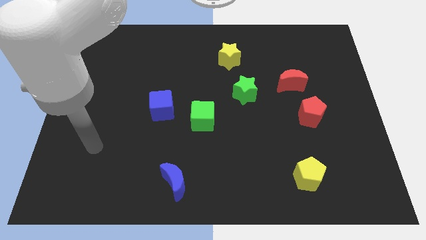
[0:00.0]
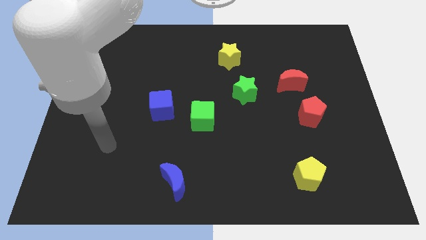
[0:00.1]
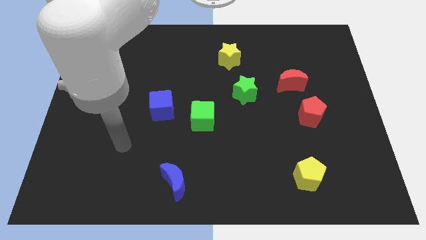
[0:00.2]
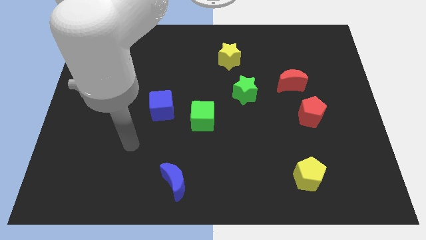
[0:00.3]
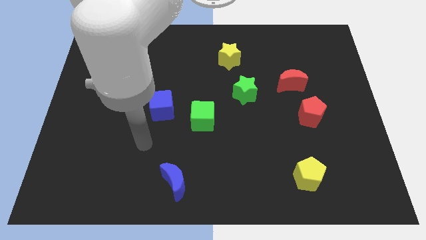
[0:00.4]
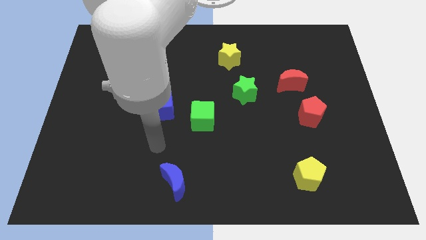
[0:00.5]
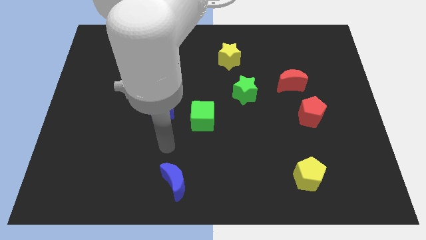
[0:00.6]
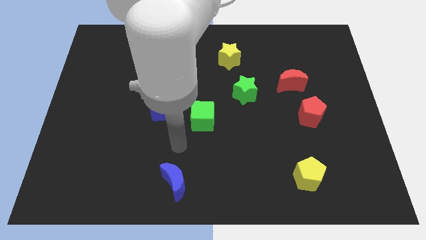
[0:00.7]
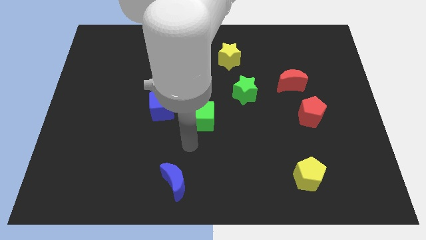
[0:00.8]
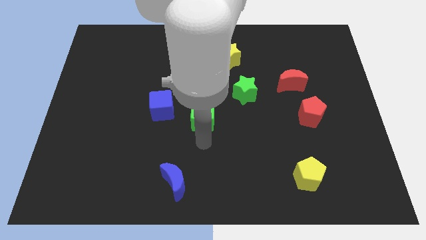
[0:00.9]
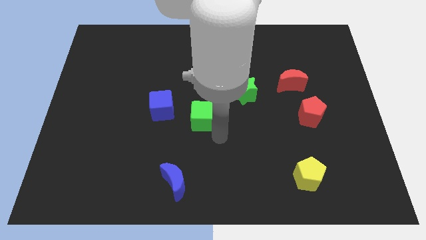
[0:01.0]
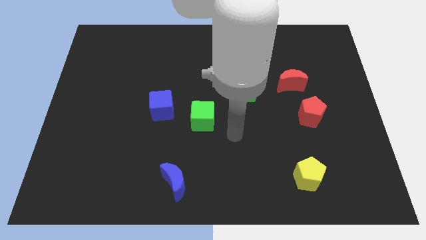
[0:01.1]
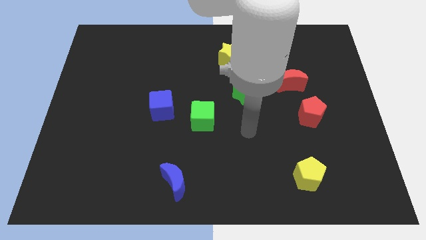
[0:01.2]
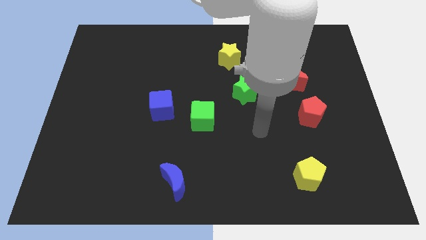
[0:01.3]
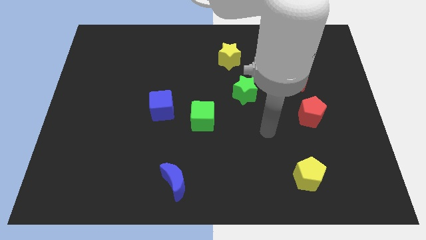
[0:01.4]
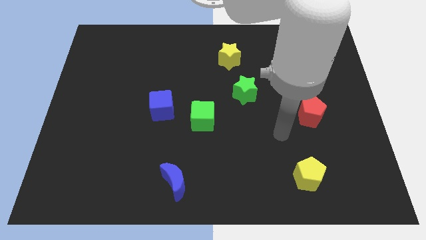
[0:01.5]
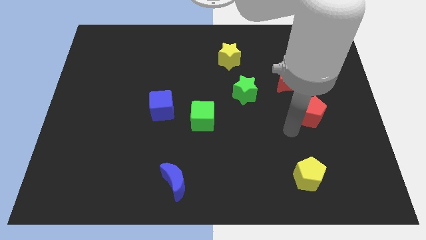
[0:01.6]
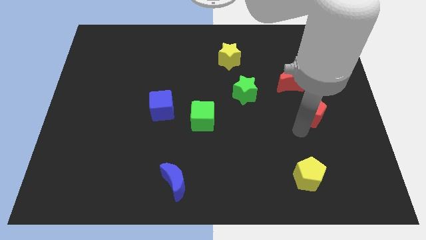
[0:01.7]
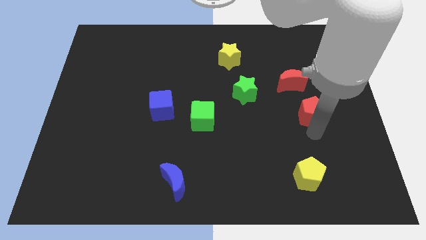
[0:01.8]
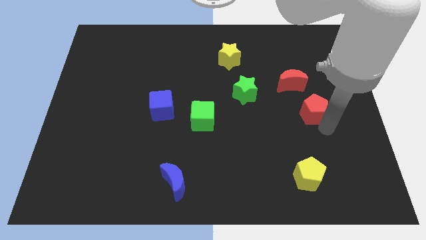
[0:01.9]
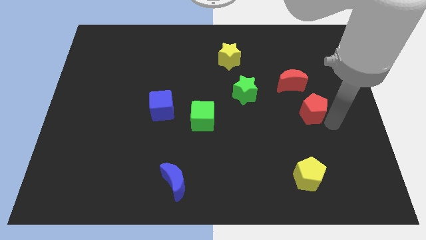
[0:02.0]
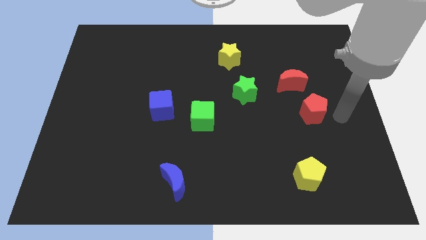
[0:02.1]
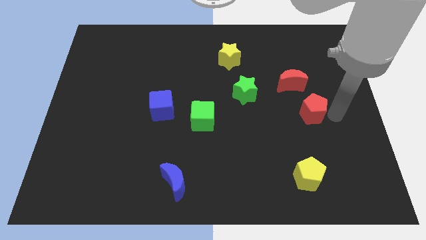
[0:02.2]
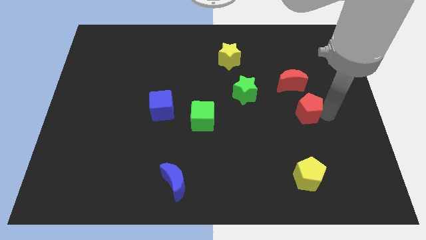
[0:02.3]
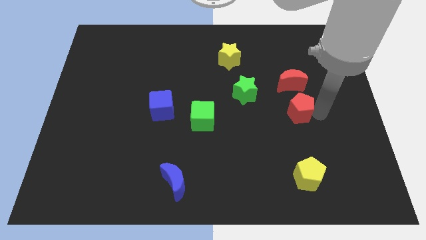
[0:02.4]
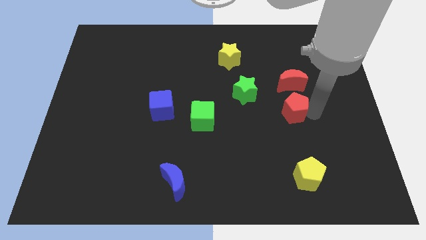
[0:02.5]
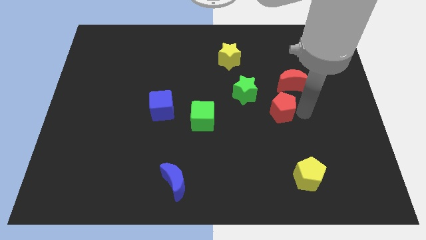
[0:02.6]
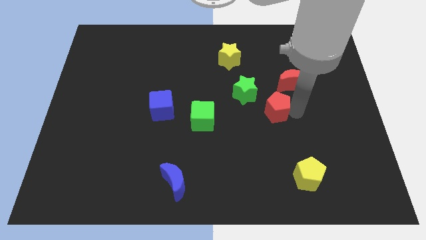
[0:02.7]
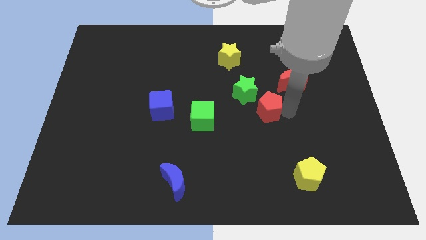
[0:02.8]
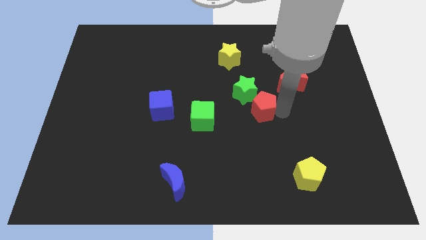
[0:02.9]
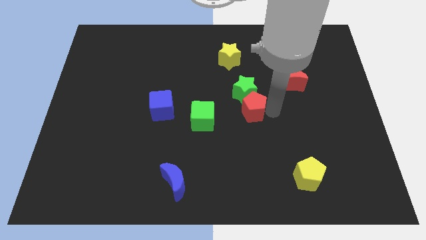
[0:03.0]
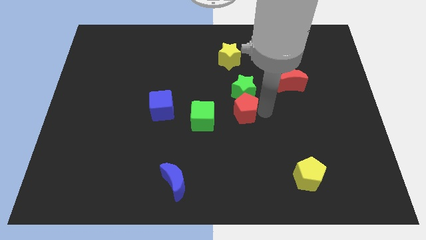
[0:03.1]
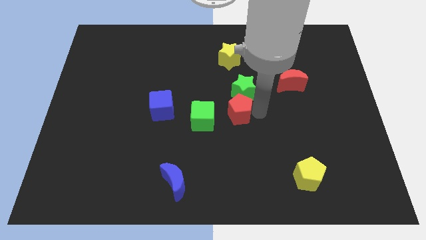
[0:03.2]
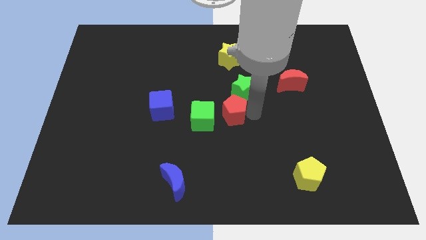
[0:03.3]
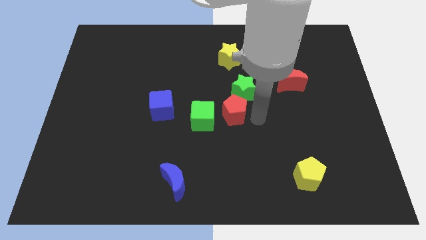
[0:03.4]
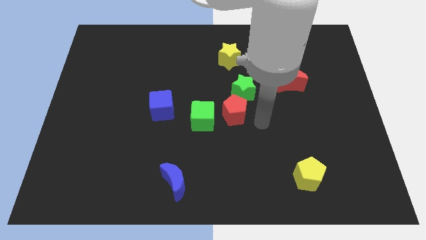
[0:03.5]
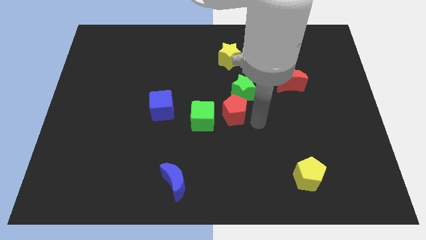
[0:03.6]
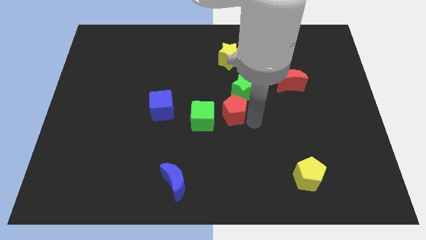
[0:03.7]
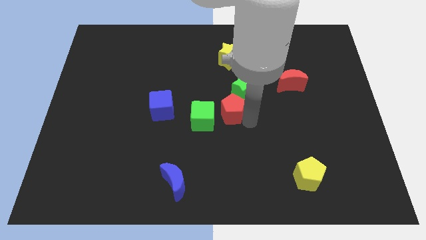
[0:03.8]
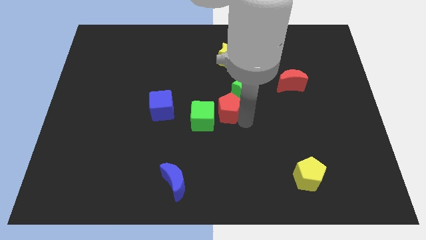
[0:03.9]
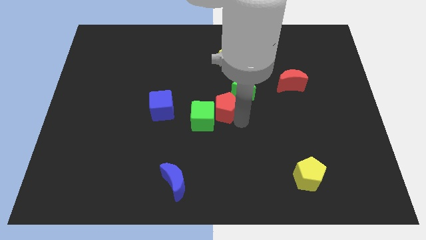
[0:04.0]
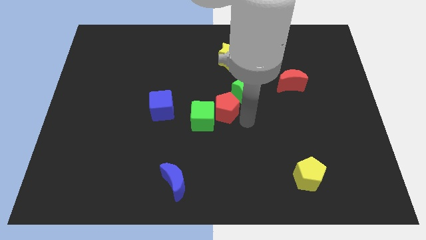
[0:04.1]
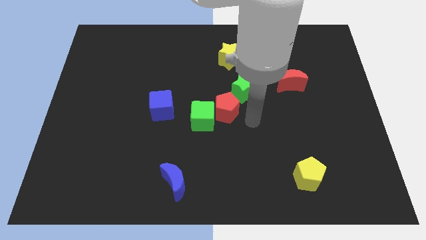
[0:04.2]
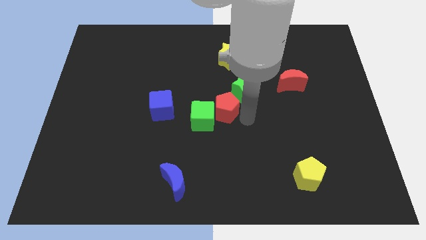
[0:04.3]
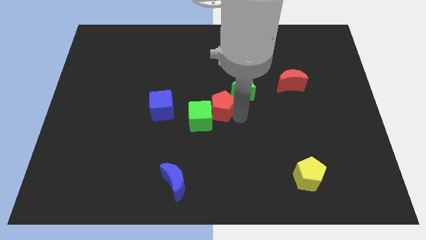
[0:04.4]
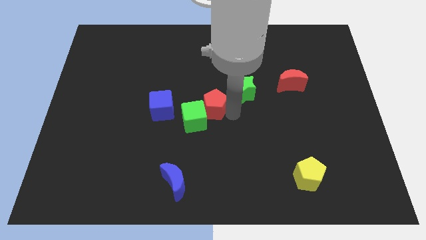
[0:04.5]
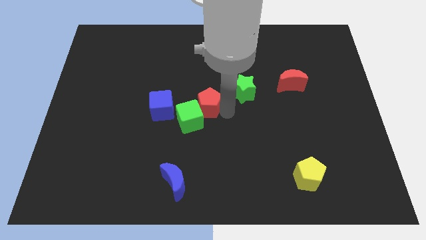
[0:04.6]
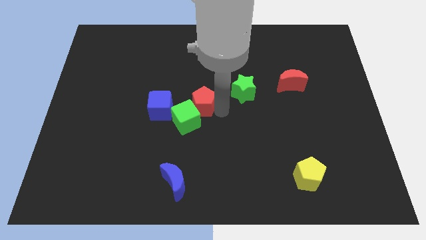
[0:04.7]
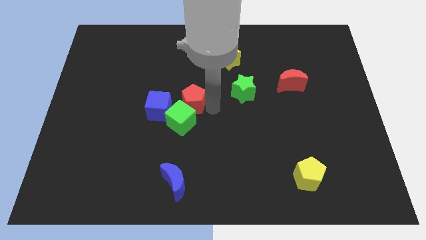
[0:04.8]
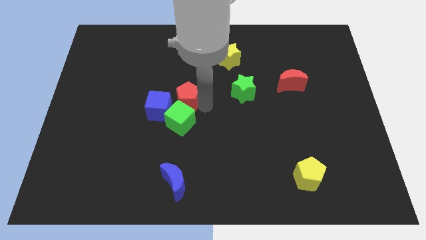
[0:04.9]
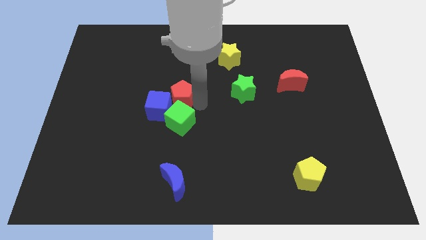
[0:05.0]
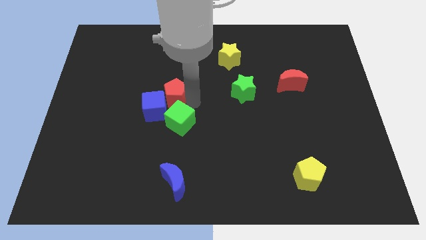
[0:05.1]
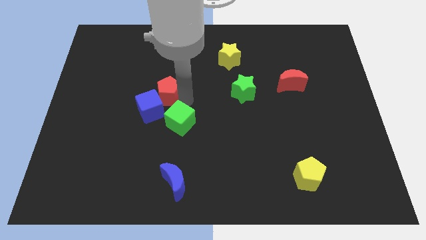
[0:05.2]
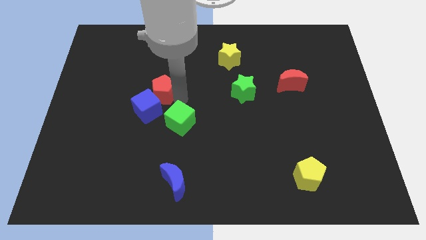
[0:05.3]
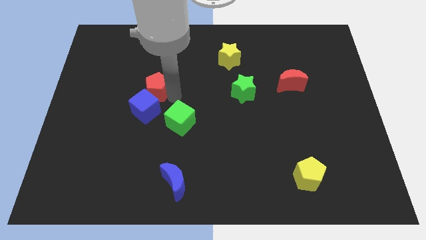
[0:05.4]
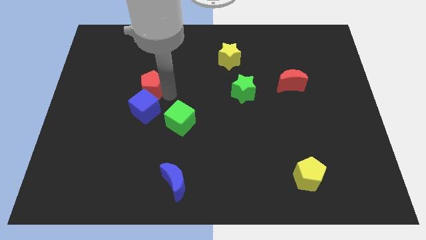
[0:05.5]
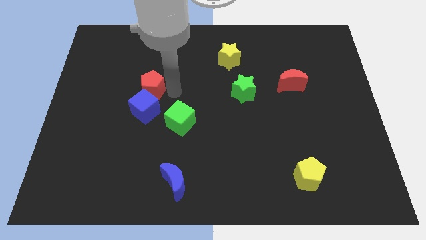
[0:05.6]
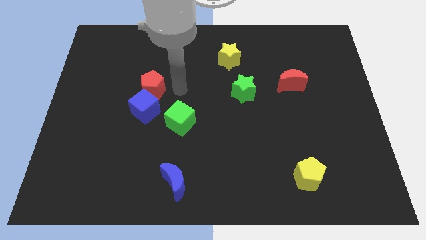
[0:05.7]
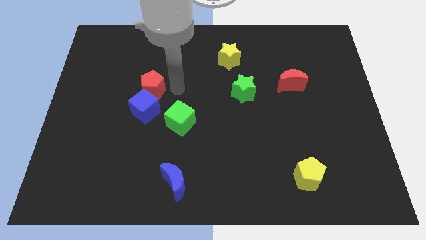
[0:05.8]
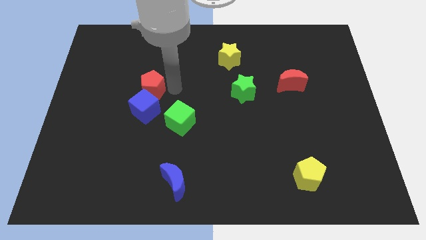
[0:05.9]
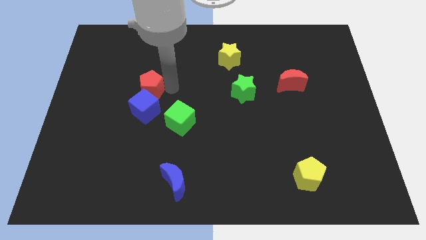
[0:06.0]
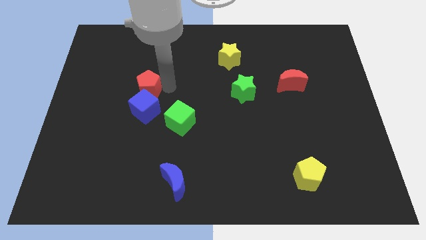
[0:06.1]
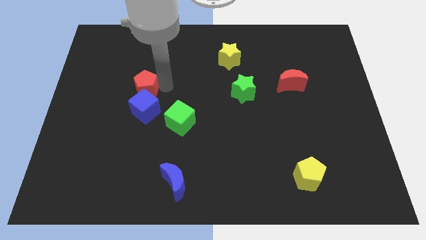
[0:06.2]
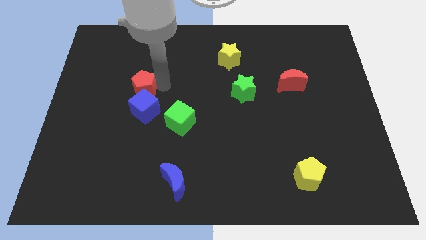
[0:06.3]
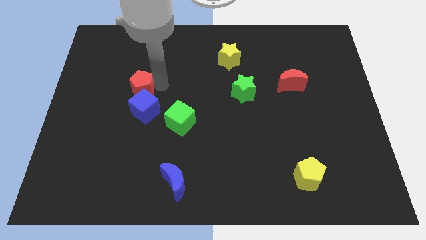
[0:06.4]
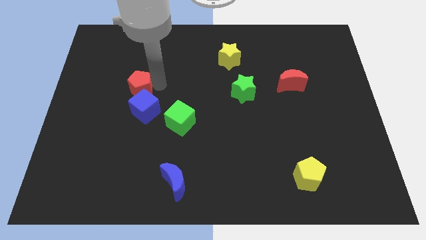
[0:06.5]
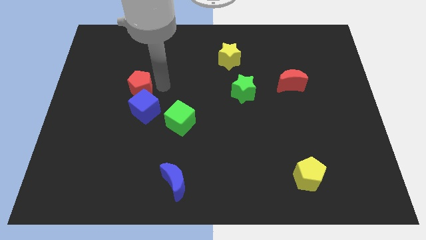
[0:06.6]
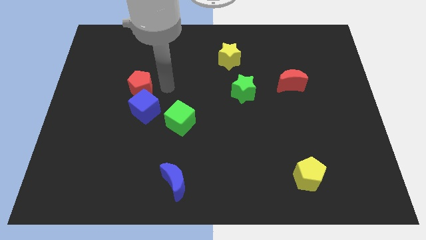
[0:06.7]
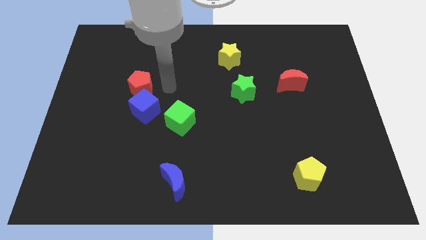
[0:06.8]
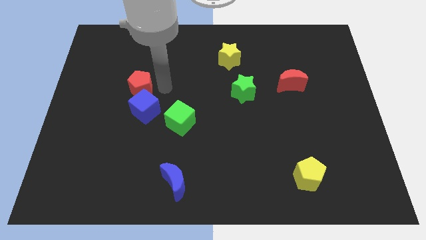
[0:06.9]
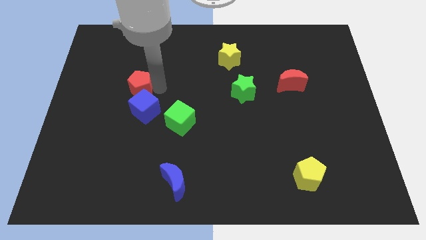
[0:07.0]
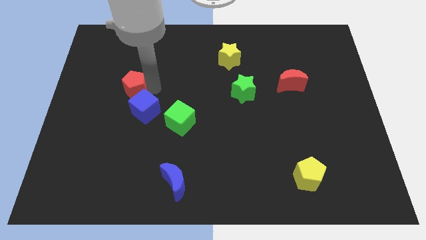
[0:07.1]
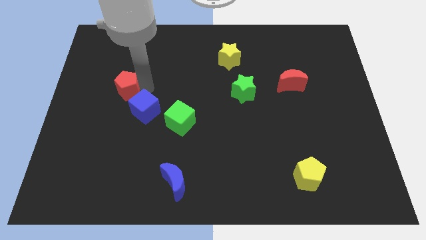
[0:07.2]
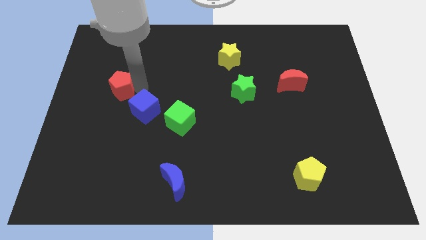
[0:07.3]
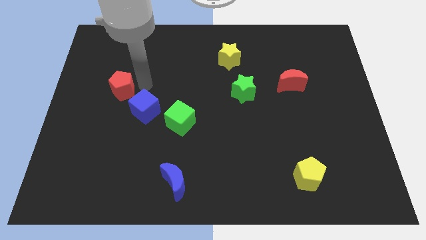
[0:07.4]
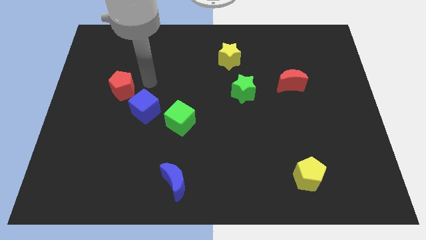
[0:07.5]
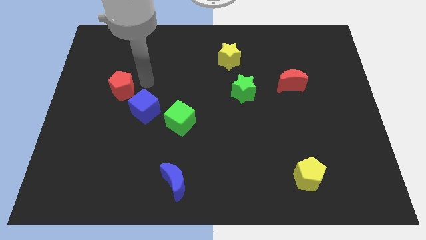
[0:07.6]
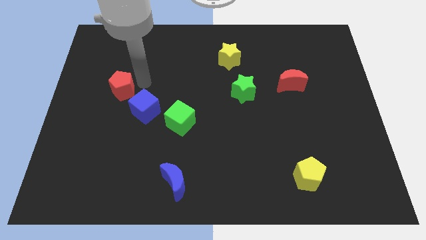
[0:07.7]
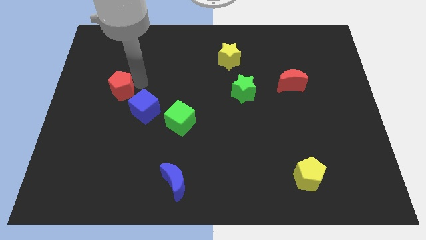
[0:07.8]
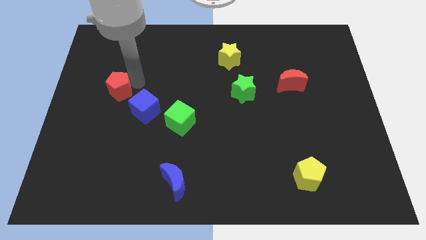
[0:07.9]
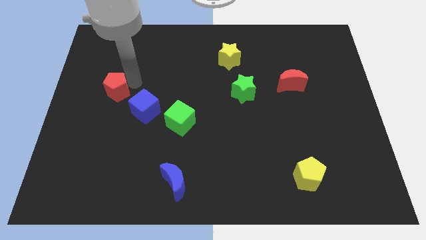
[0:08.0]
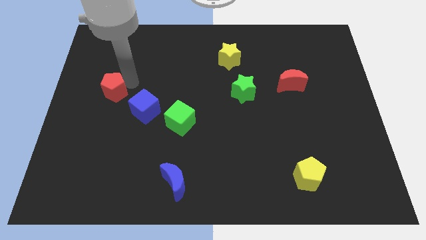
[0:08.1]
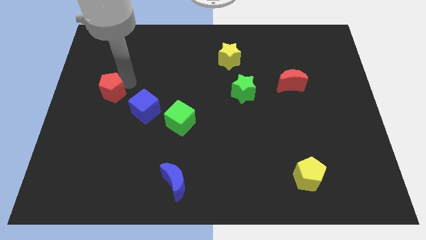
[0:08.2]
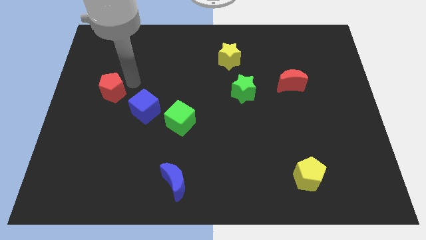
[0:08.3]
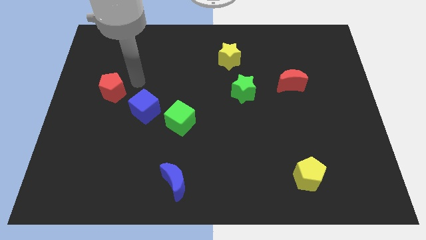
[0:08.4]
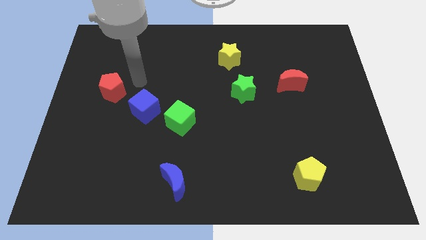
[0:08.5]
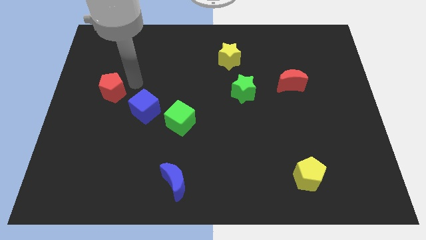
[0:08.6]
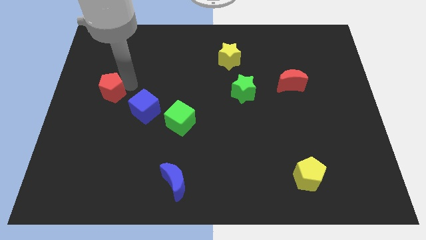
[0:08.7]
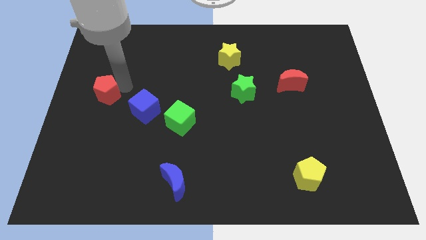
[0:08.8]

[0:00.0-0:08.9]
push the red pentagon to the left side of the board
